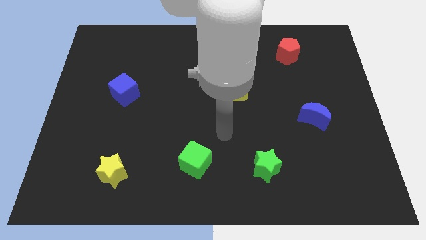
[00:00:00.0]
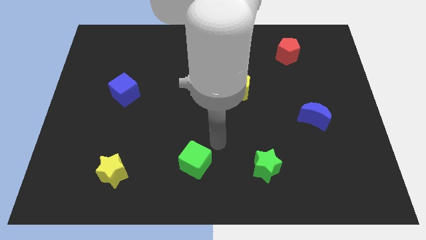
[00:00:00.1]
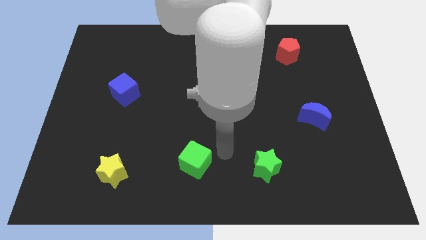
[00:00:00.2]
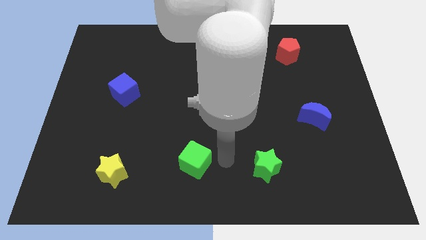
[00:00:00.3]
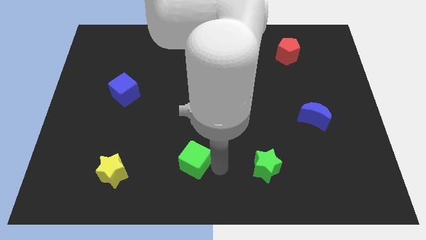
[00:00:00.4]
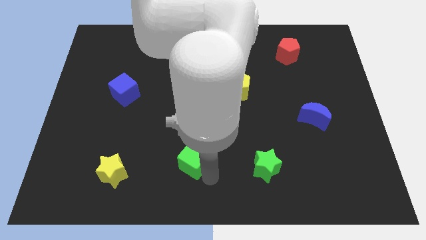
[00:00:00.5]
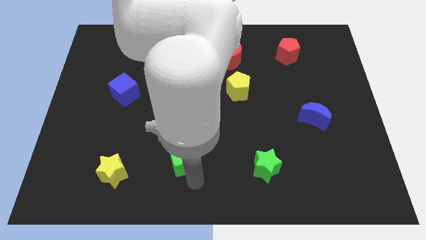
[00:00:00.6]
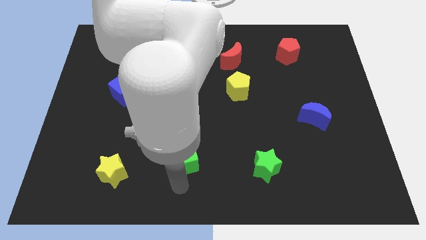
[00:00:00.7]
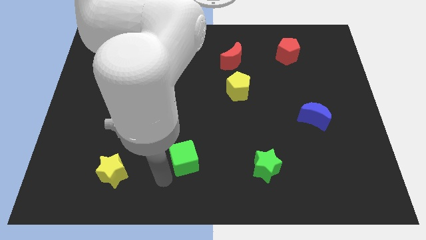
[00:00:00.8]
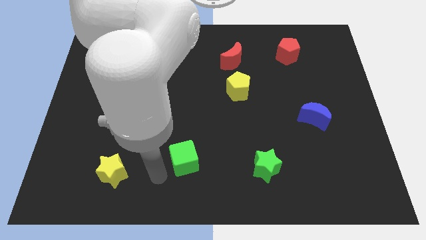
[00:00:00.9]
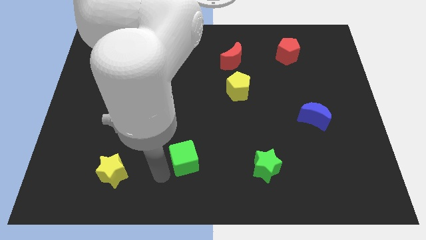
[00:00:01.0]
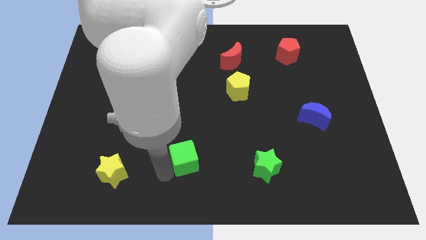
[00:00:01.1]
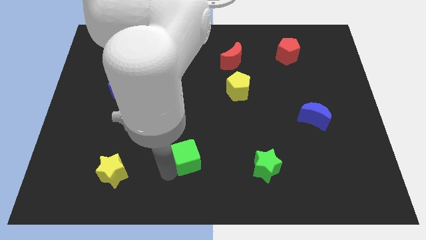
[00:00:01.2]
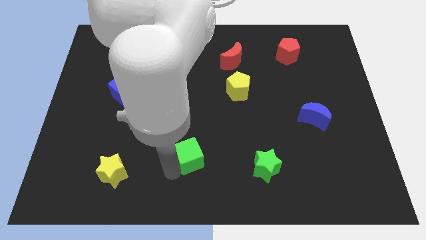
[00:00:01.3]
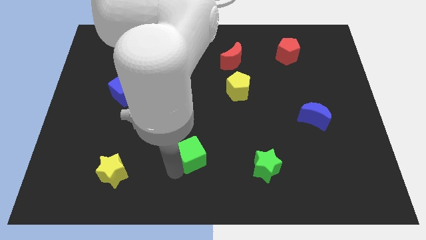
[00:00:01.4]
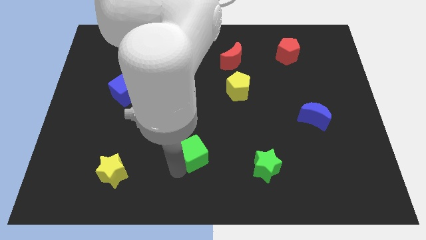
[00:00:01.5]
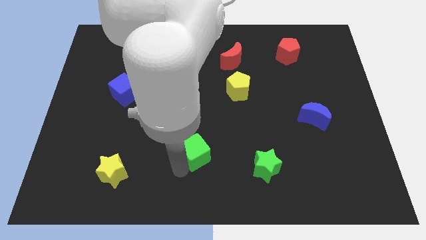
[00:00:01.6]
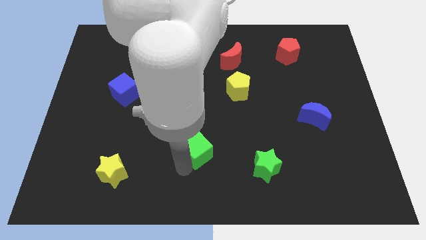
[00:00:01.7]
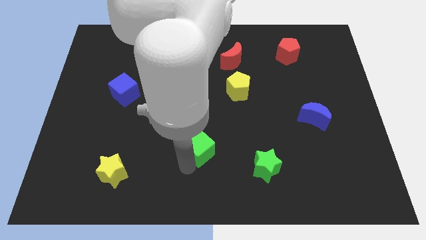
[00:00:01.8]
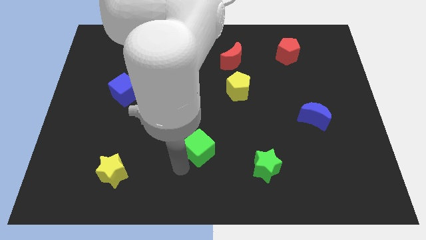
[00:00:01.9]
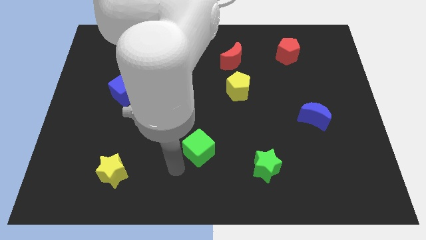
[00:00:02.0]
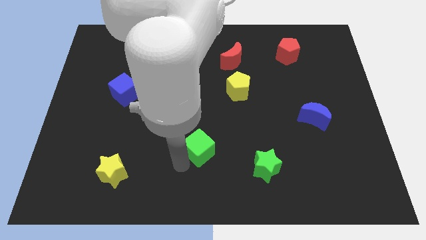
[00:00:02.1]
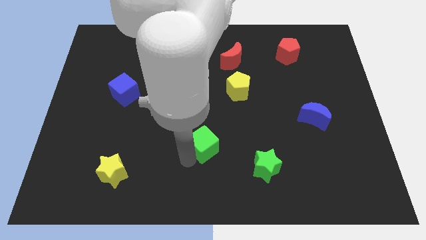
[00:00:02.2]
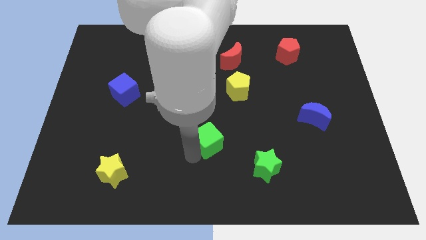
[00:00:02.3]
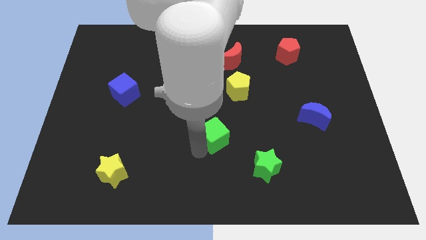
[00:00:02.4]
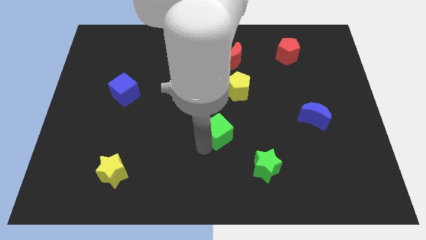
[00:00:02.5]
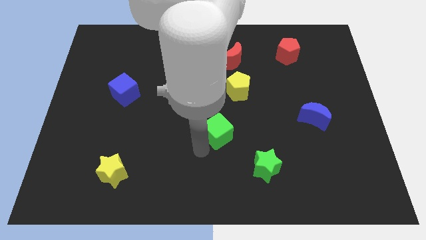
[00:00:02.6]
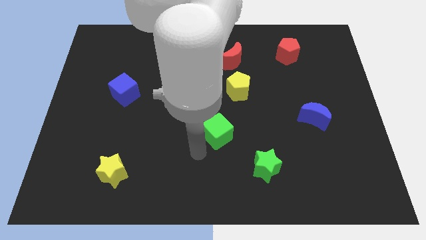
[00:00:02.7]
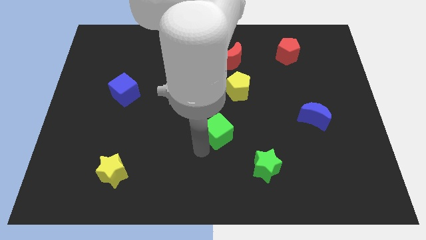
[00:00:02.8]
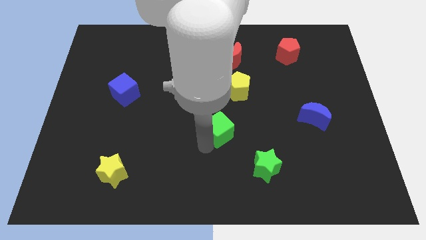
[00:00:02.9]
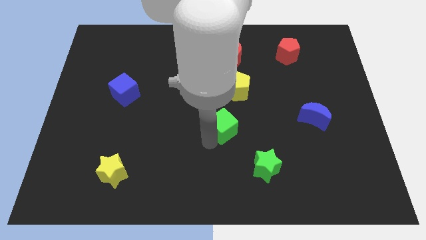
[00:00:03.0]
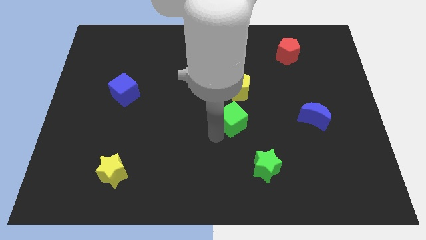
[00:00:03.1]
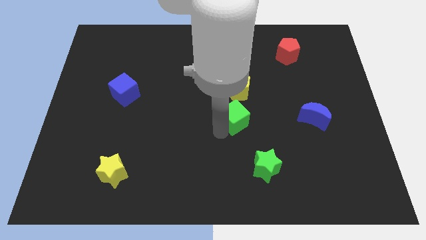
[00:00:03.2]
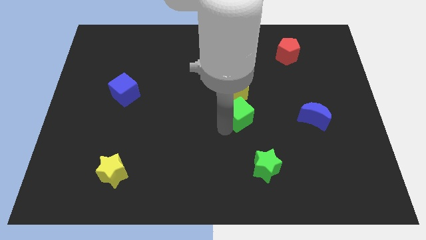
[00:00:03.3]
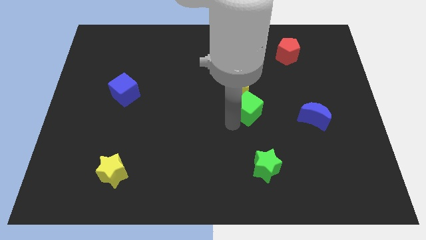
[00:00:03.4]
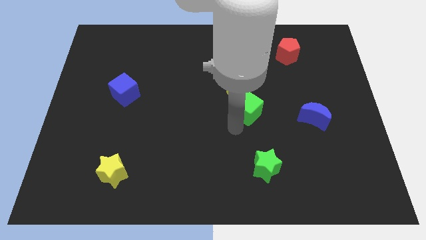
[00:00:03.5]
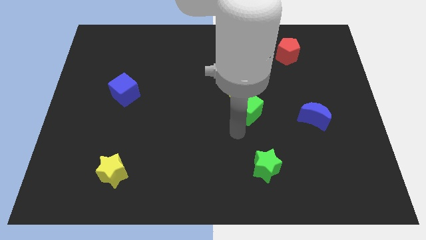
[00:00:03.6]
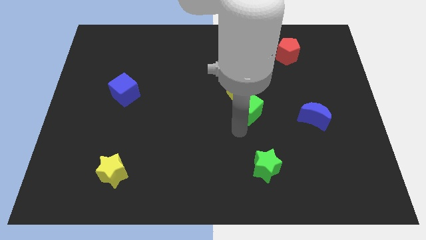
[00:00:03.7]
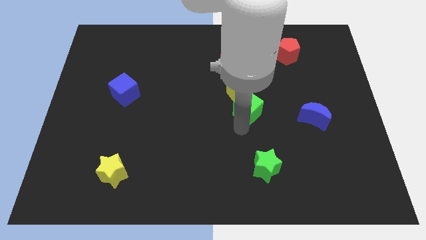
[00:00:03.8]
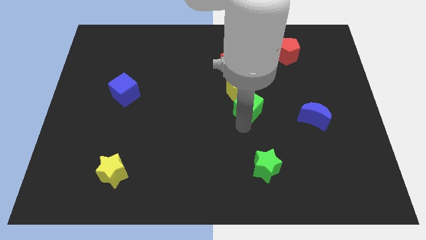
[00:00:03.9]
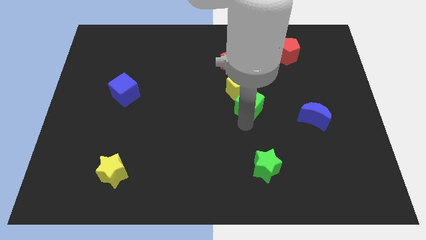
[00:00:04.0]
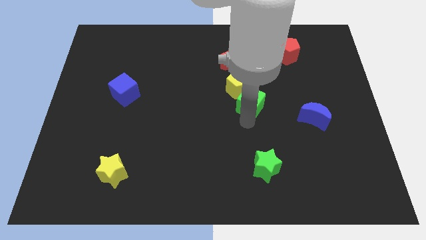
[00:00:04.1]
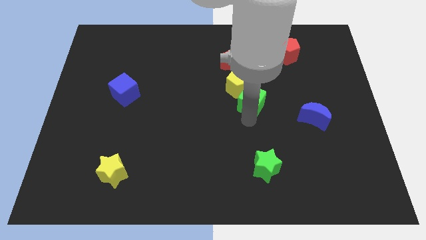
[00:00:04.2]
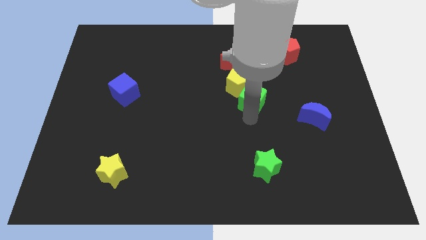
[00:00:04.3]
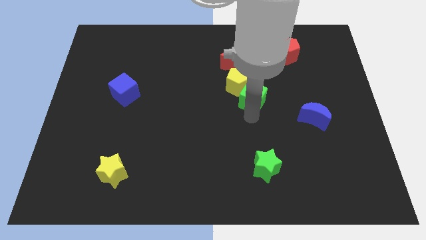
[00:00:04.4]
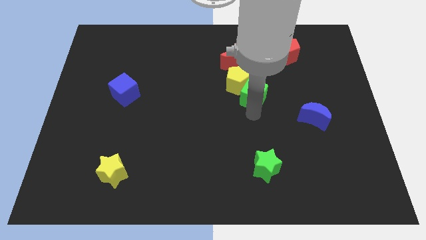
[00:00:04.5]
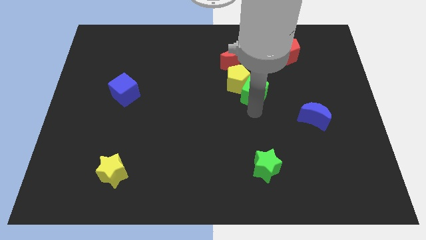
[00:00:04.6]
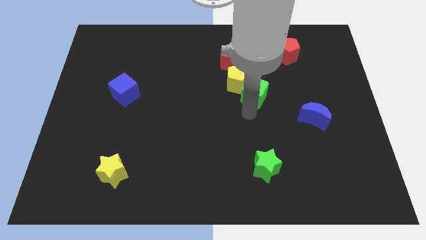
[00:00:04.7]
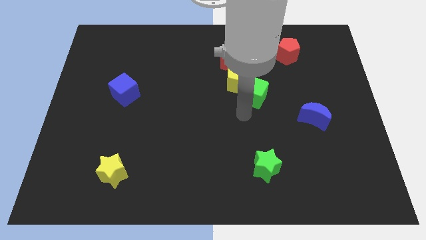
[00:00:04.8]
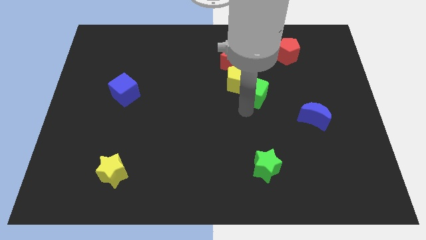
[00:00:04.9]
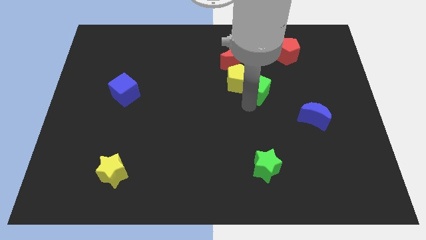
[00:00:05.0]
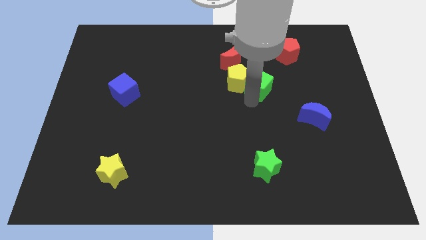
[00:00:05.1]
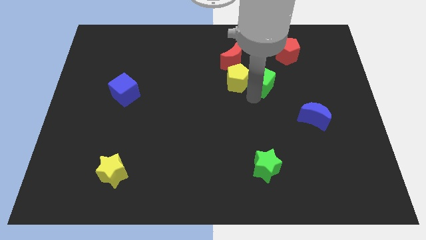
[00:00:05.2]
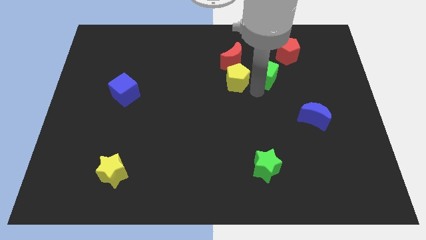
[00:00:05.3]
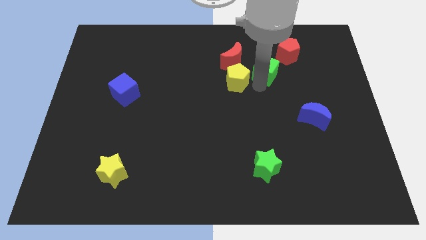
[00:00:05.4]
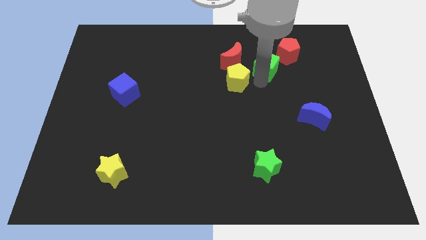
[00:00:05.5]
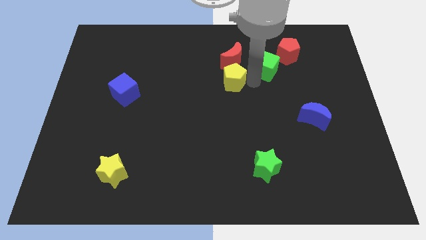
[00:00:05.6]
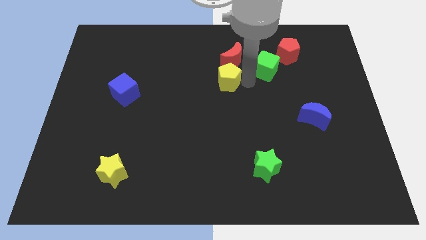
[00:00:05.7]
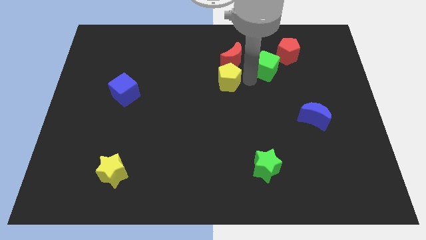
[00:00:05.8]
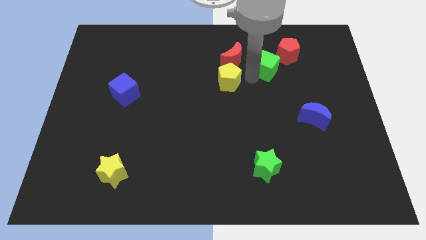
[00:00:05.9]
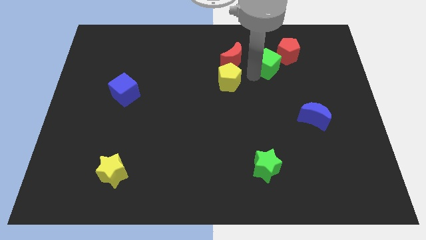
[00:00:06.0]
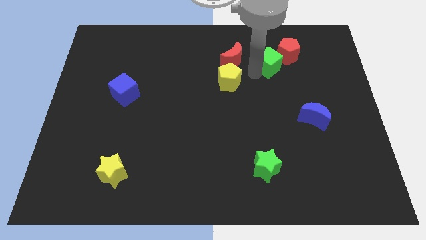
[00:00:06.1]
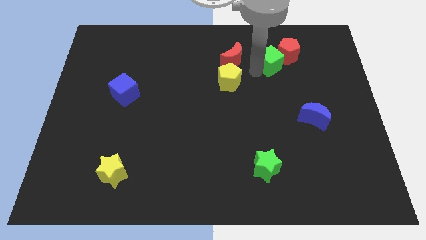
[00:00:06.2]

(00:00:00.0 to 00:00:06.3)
move the green cube next to the red pentagon

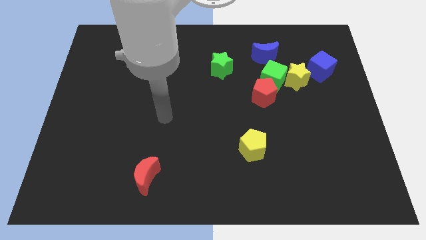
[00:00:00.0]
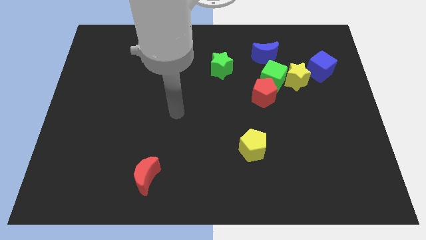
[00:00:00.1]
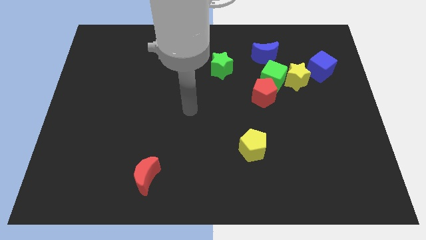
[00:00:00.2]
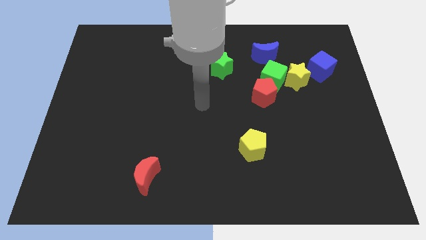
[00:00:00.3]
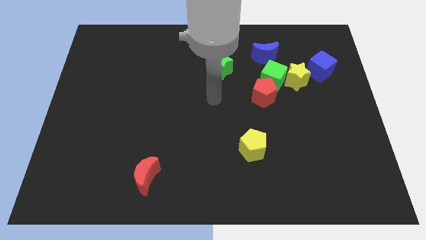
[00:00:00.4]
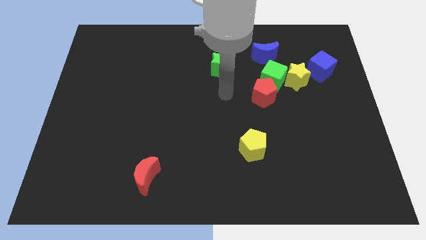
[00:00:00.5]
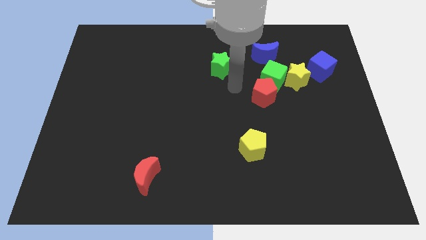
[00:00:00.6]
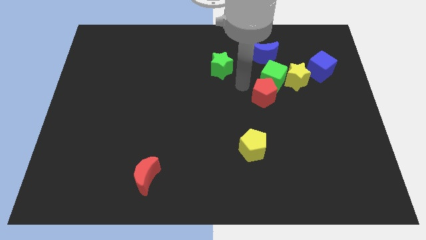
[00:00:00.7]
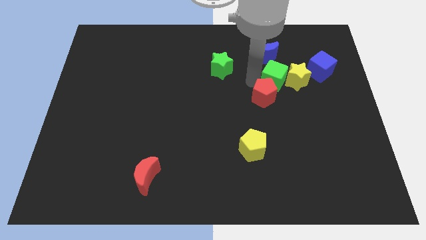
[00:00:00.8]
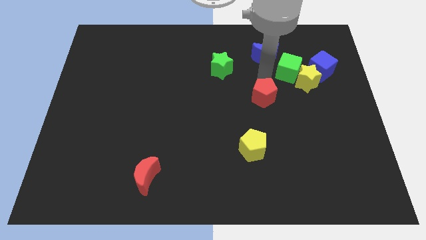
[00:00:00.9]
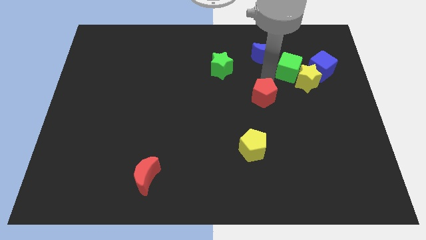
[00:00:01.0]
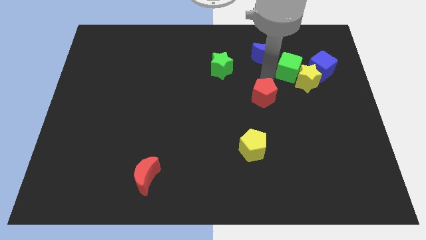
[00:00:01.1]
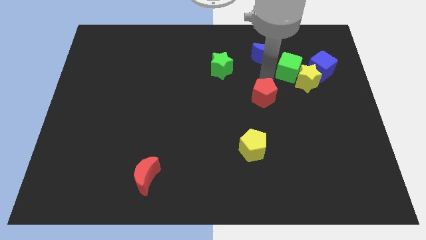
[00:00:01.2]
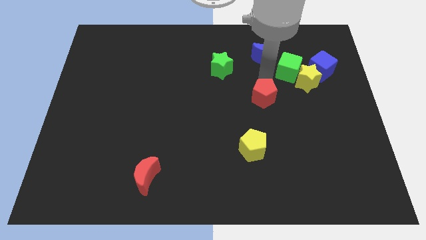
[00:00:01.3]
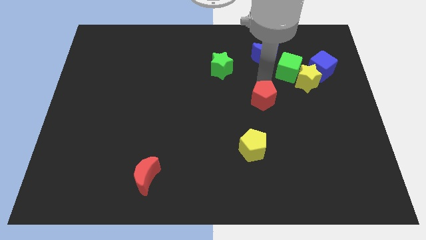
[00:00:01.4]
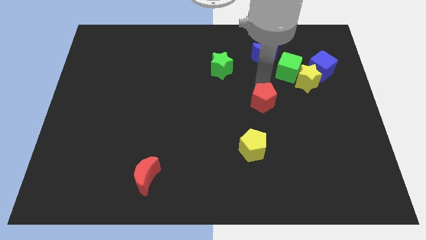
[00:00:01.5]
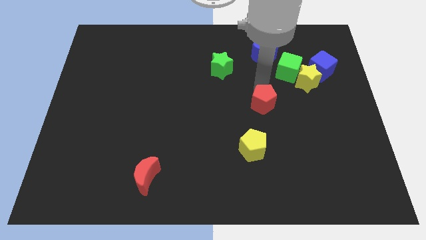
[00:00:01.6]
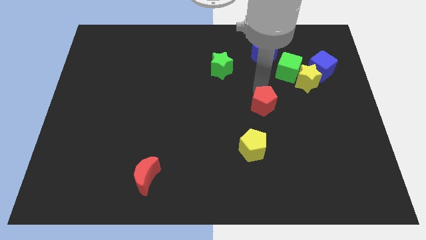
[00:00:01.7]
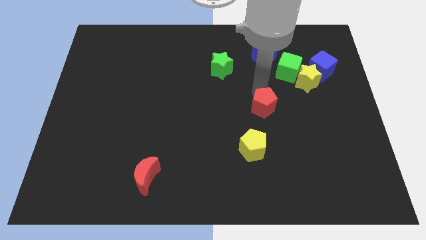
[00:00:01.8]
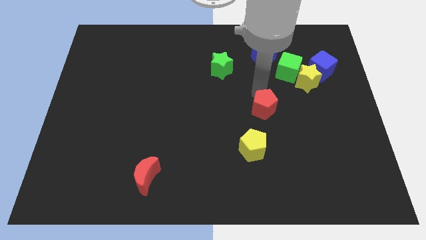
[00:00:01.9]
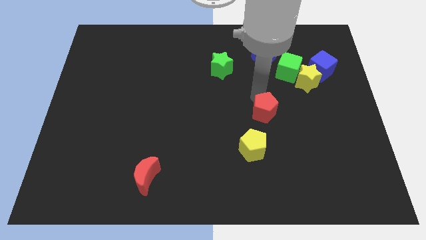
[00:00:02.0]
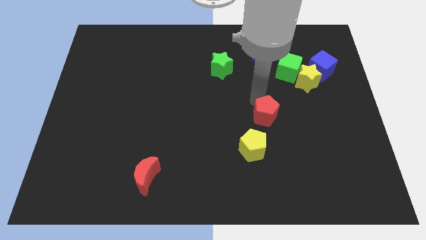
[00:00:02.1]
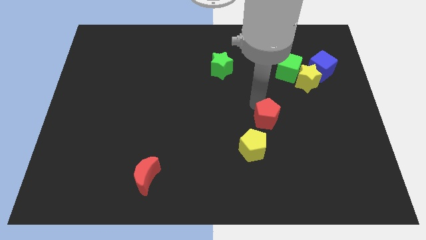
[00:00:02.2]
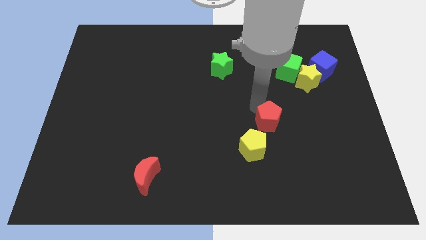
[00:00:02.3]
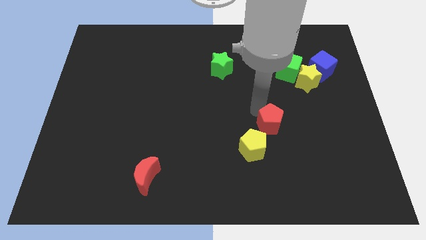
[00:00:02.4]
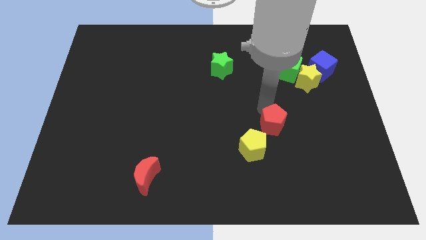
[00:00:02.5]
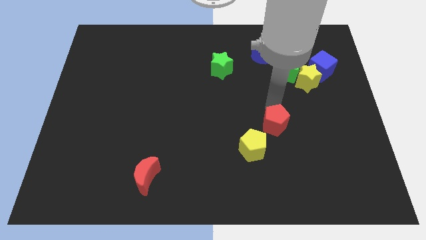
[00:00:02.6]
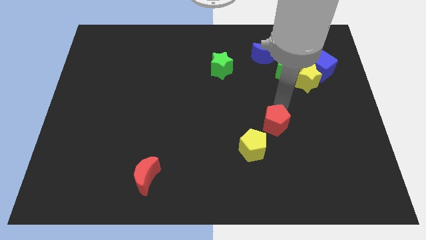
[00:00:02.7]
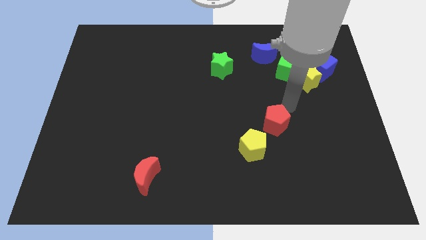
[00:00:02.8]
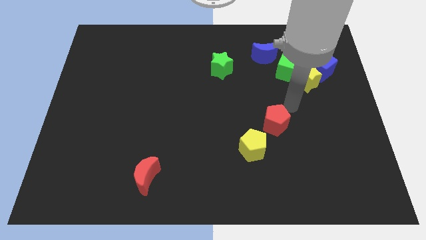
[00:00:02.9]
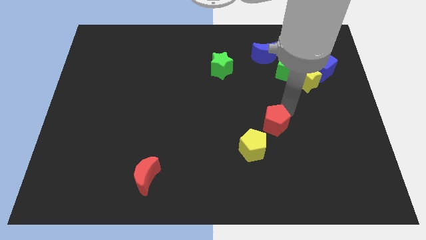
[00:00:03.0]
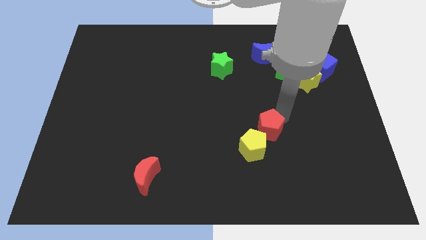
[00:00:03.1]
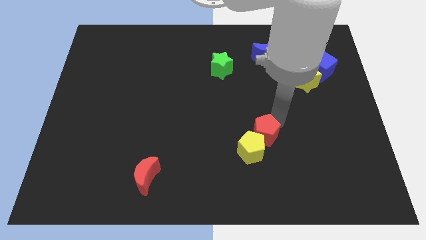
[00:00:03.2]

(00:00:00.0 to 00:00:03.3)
slide the red pentagon next to the yellow pentagon
